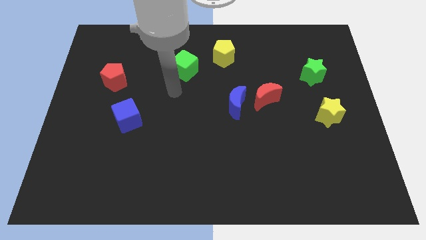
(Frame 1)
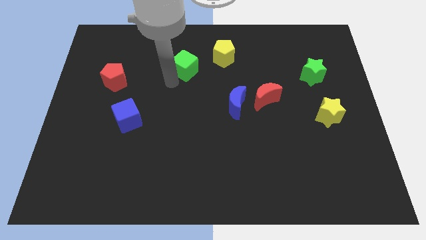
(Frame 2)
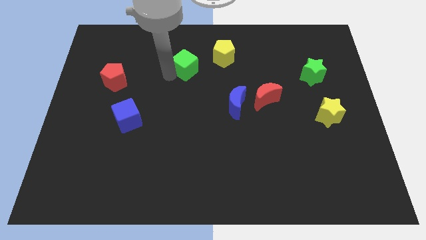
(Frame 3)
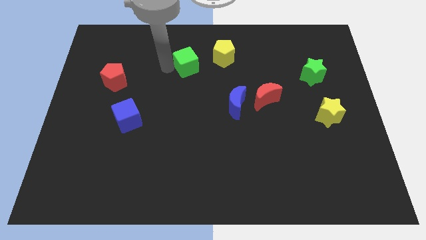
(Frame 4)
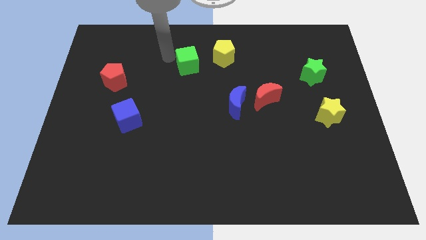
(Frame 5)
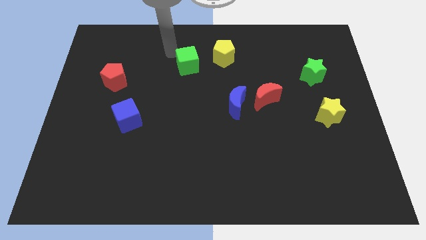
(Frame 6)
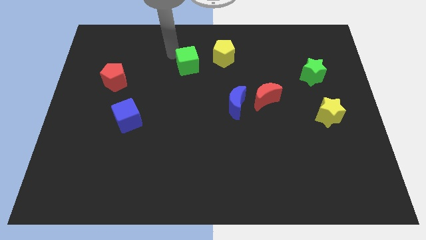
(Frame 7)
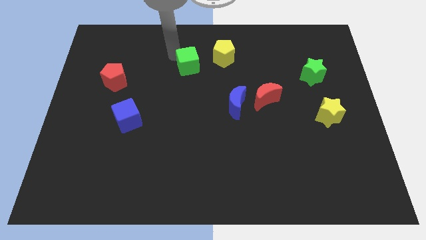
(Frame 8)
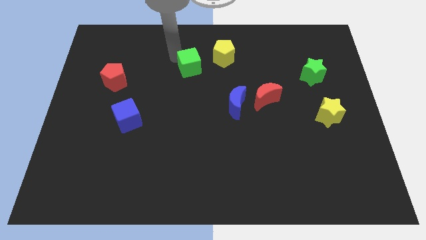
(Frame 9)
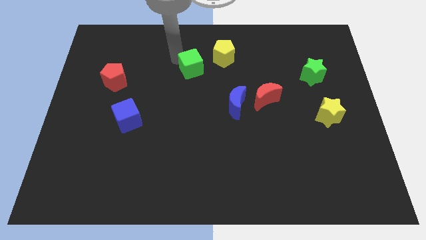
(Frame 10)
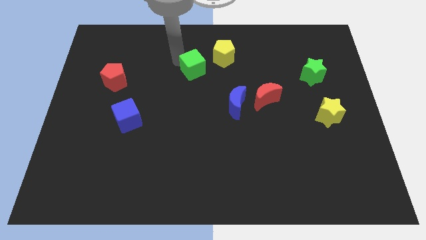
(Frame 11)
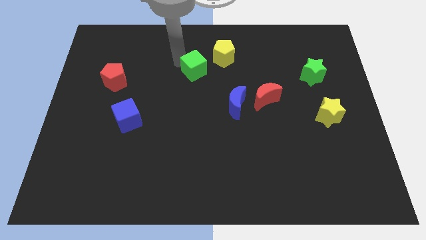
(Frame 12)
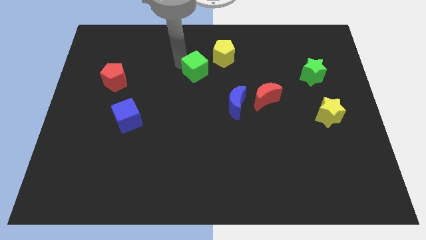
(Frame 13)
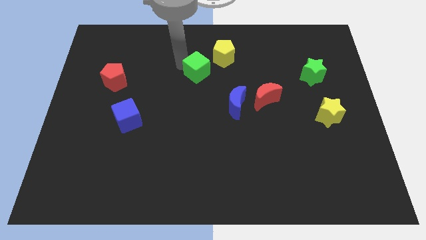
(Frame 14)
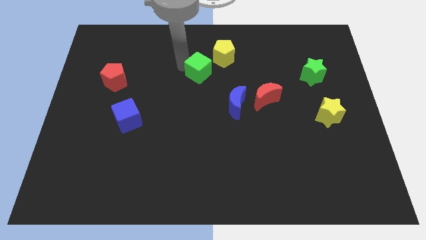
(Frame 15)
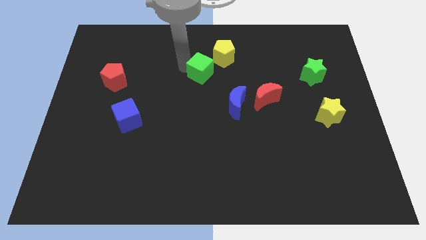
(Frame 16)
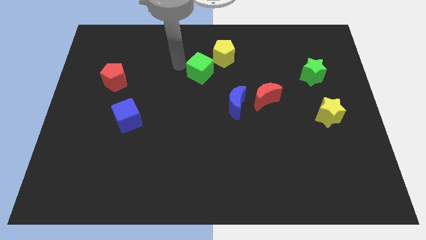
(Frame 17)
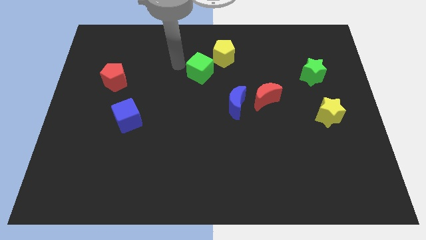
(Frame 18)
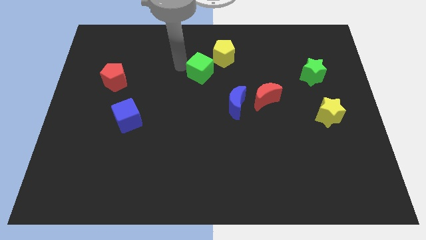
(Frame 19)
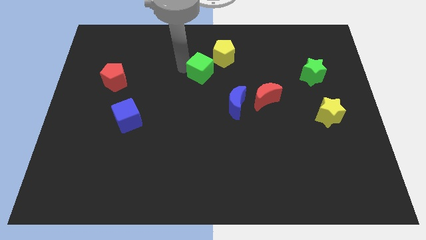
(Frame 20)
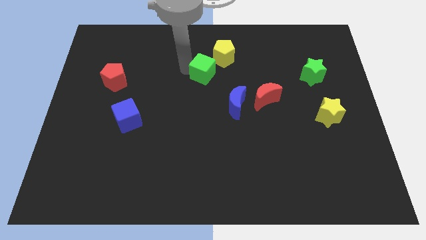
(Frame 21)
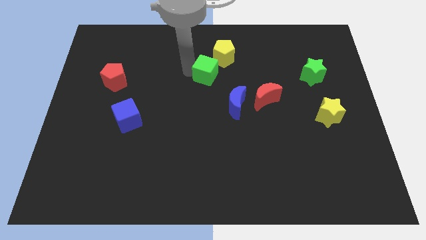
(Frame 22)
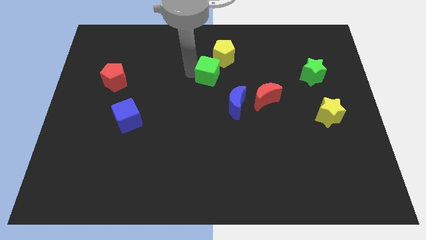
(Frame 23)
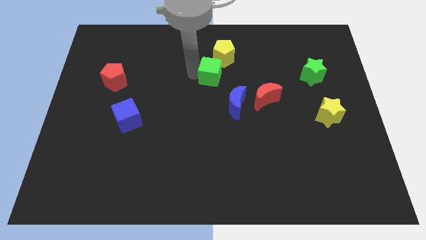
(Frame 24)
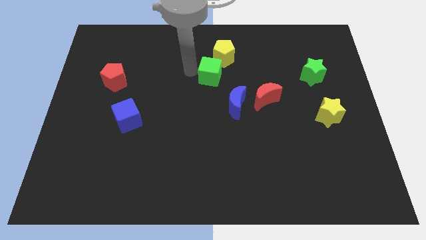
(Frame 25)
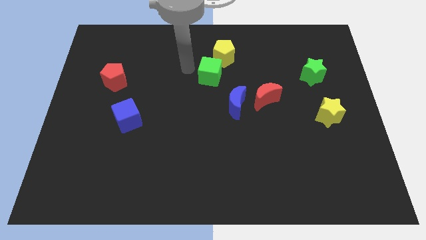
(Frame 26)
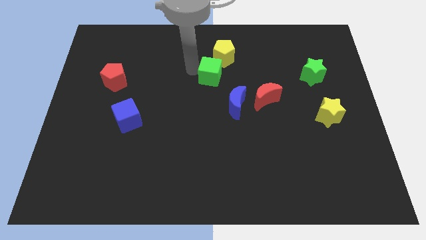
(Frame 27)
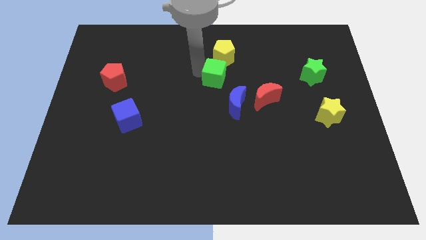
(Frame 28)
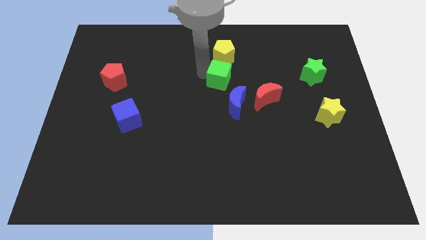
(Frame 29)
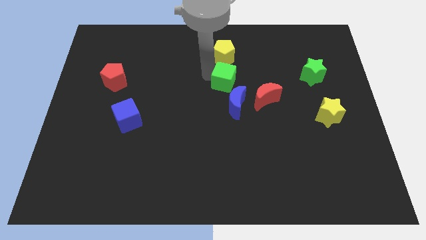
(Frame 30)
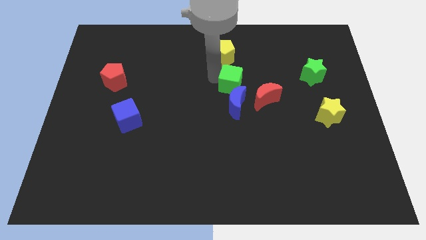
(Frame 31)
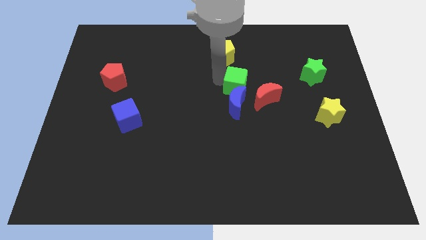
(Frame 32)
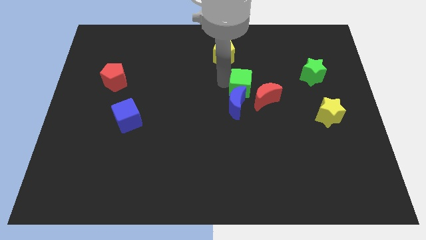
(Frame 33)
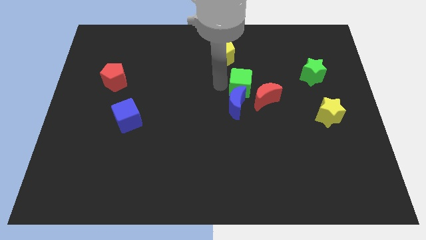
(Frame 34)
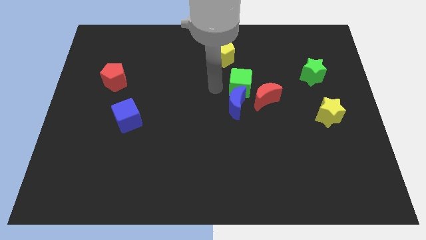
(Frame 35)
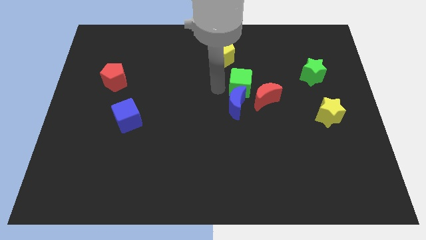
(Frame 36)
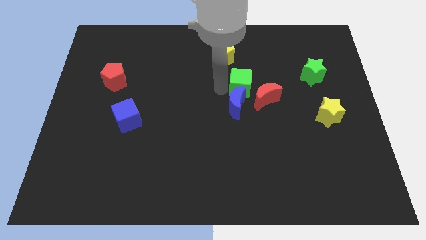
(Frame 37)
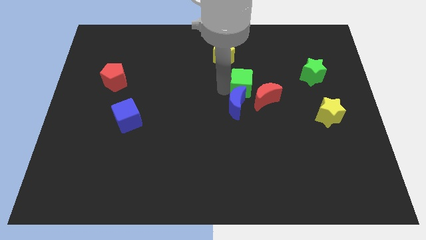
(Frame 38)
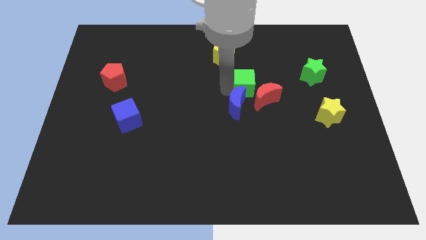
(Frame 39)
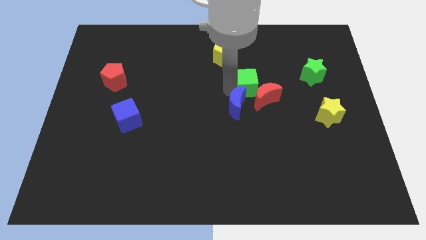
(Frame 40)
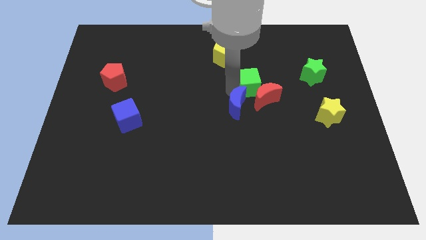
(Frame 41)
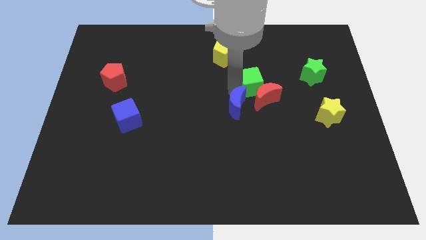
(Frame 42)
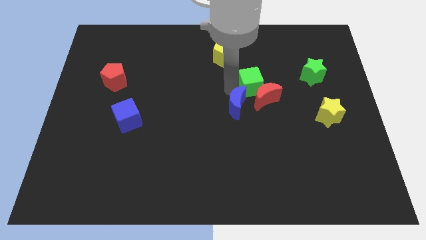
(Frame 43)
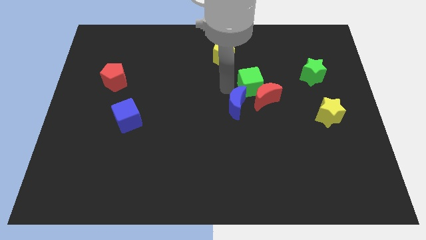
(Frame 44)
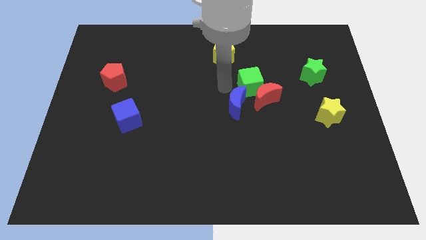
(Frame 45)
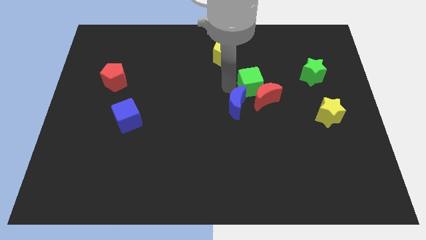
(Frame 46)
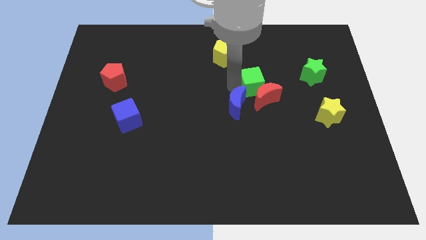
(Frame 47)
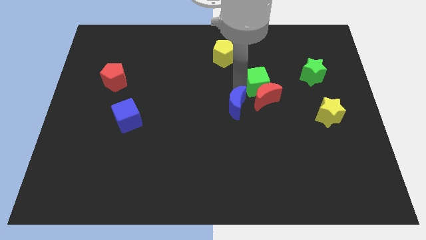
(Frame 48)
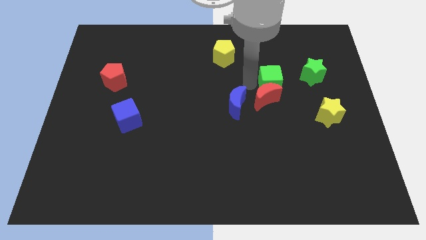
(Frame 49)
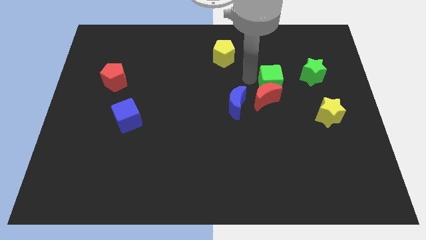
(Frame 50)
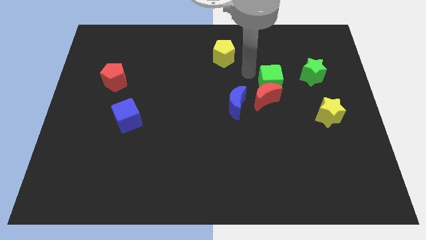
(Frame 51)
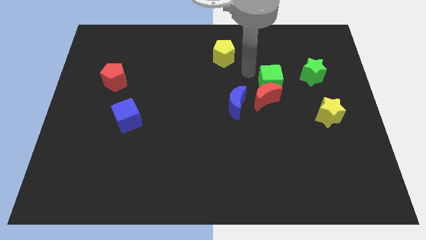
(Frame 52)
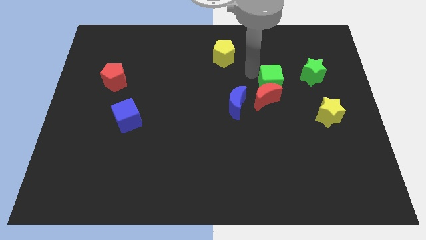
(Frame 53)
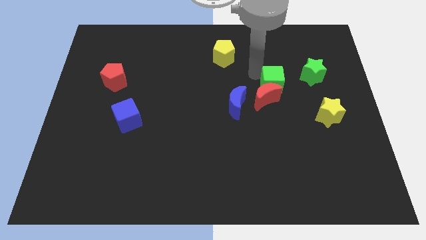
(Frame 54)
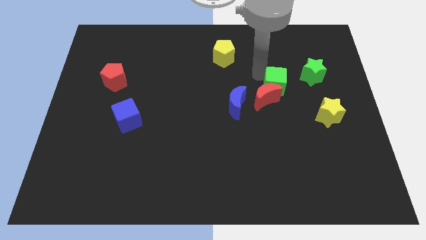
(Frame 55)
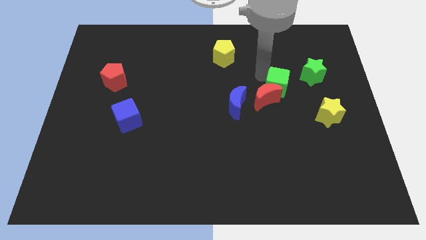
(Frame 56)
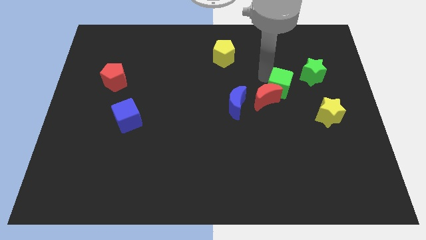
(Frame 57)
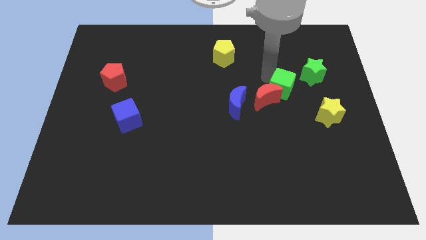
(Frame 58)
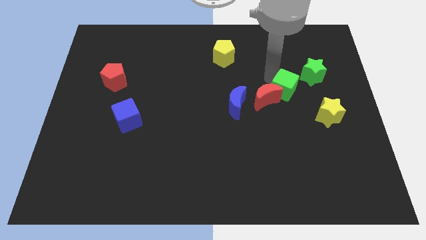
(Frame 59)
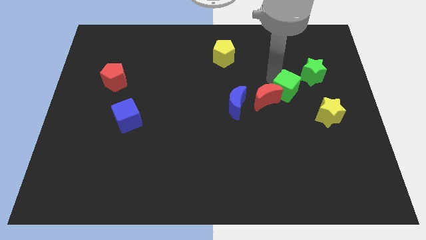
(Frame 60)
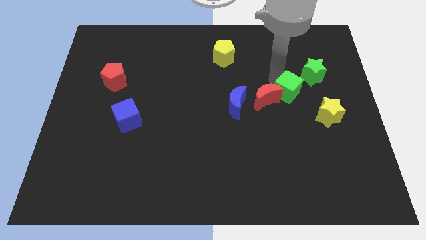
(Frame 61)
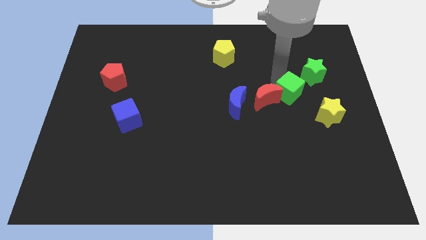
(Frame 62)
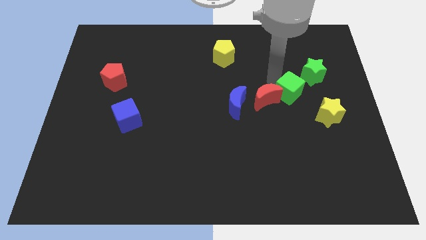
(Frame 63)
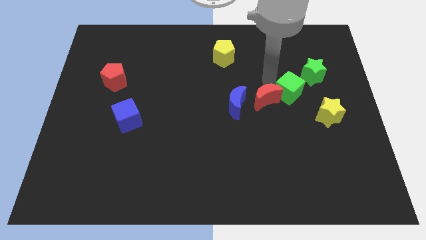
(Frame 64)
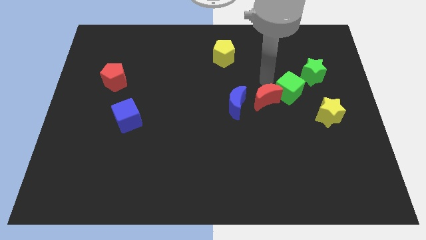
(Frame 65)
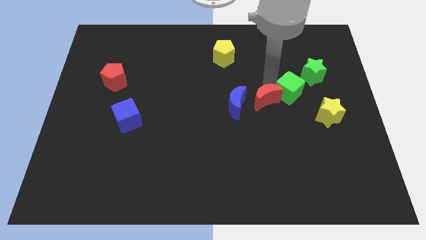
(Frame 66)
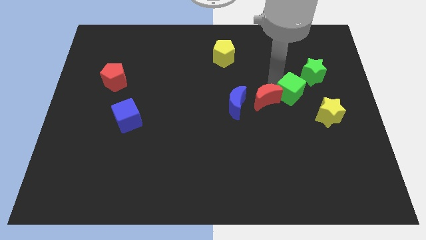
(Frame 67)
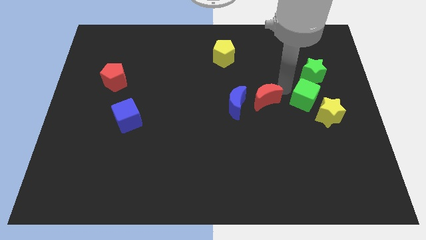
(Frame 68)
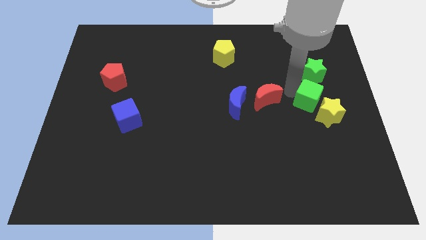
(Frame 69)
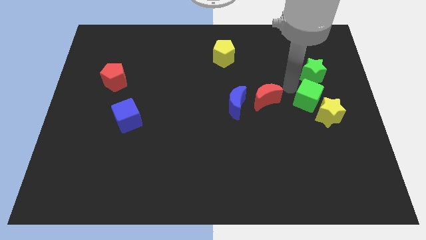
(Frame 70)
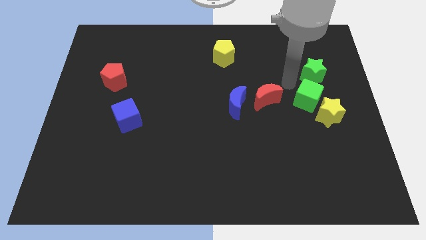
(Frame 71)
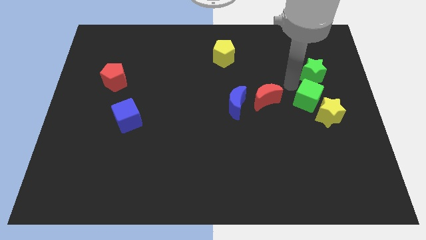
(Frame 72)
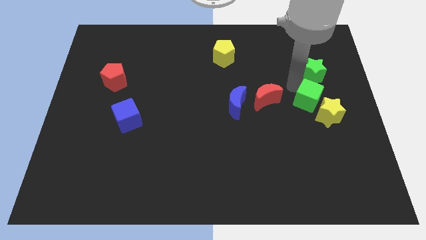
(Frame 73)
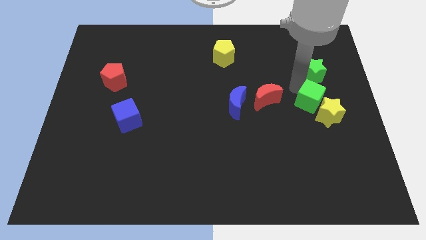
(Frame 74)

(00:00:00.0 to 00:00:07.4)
slide the green cube next to the yellow star
